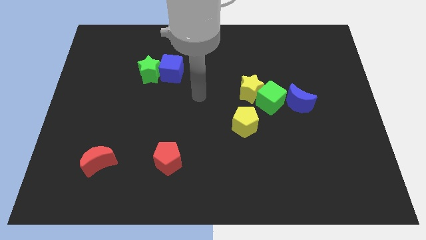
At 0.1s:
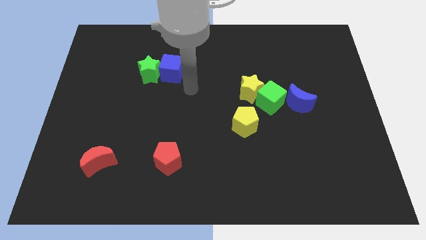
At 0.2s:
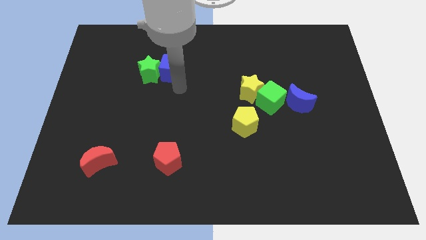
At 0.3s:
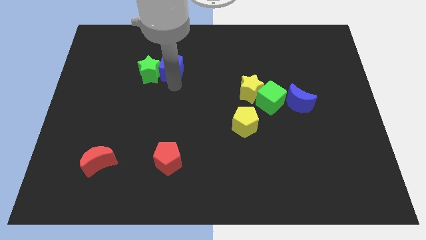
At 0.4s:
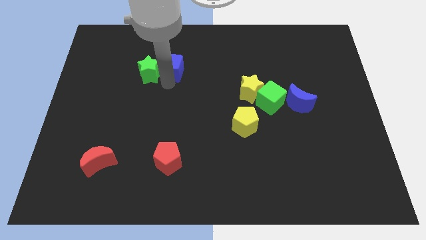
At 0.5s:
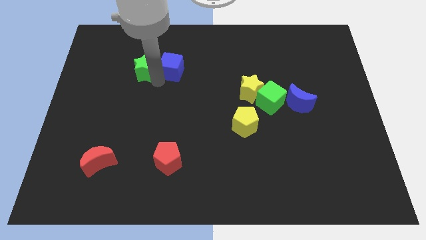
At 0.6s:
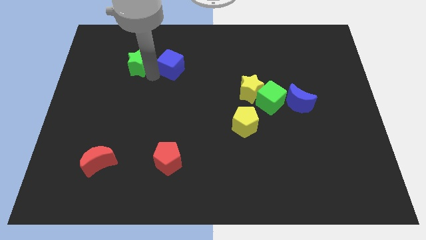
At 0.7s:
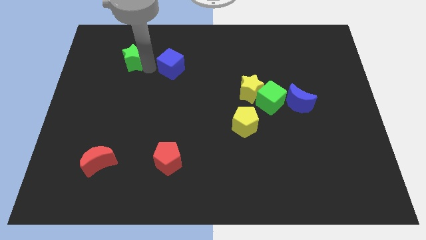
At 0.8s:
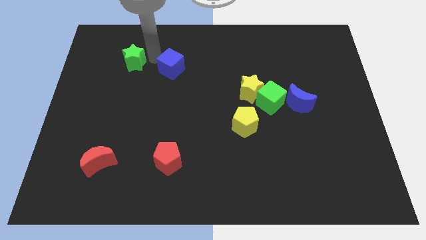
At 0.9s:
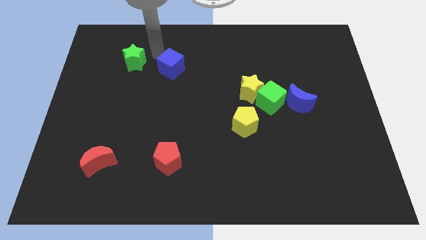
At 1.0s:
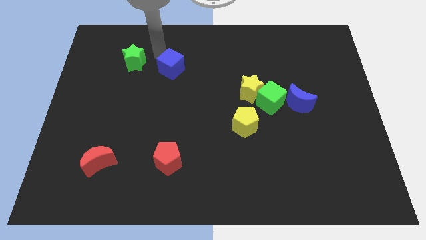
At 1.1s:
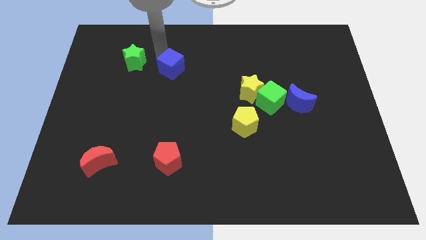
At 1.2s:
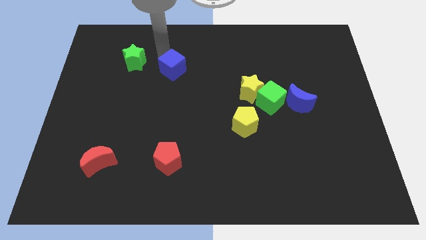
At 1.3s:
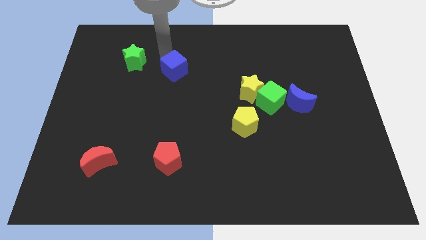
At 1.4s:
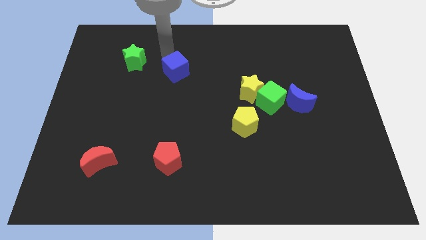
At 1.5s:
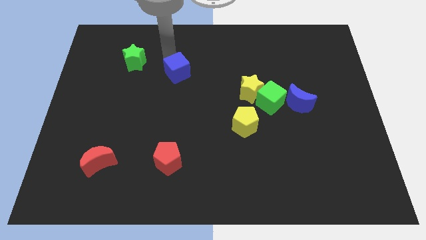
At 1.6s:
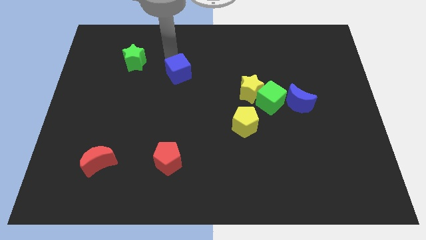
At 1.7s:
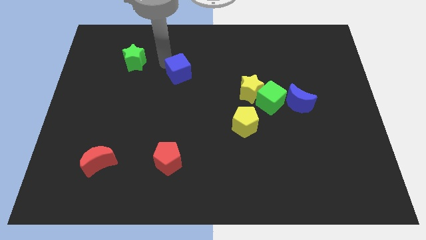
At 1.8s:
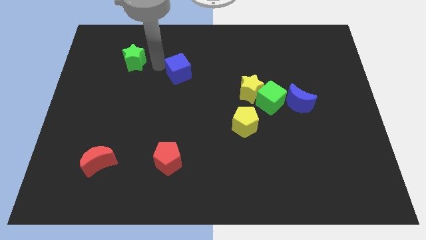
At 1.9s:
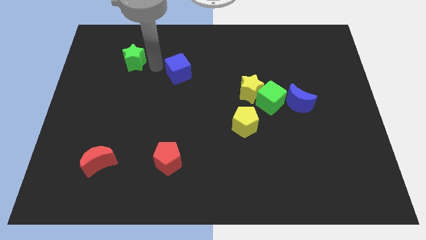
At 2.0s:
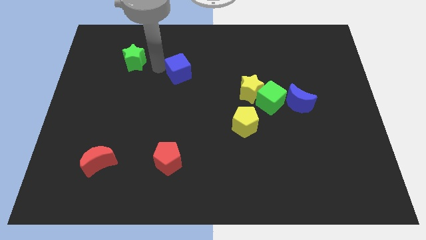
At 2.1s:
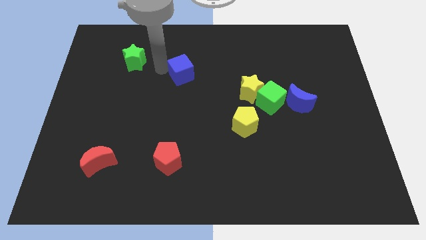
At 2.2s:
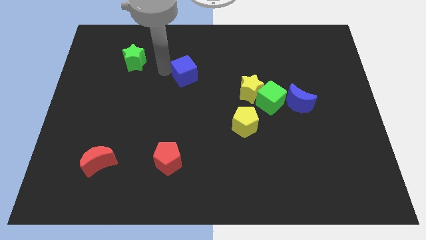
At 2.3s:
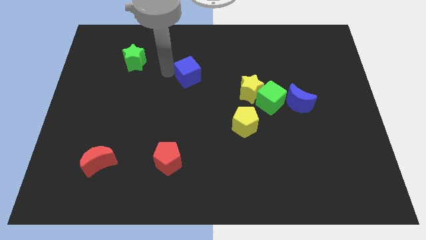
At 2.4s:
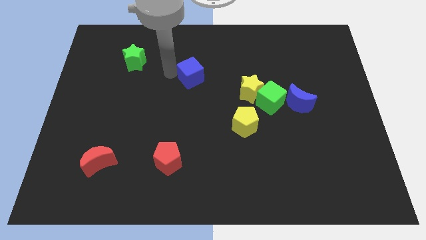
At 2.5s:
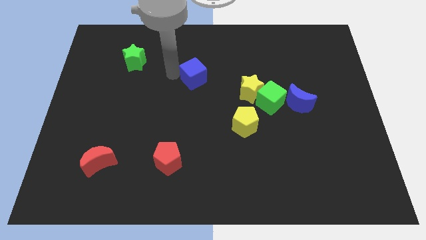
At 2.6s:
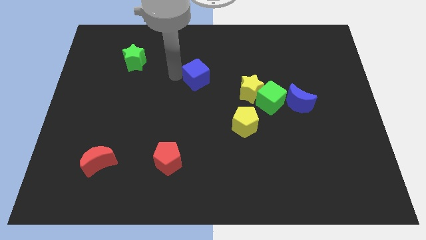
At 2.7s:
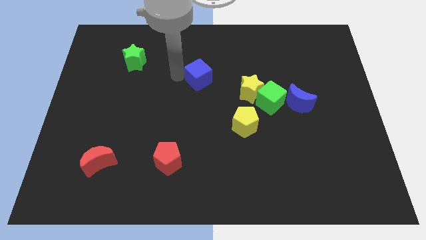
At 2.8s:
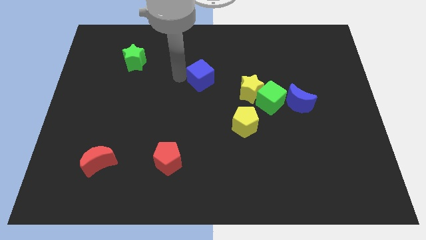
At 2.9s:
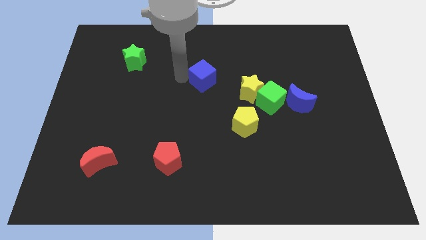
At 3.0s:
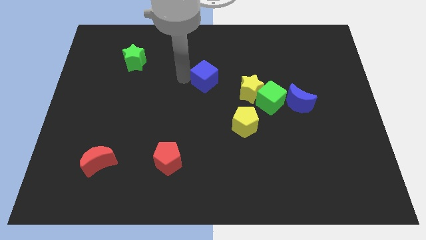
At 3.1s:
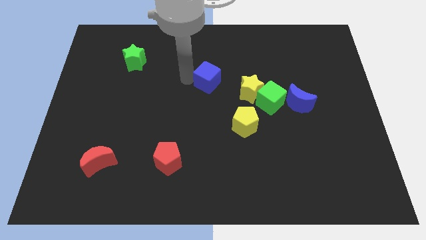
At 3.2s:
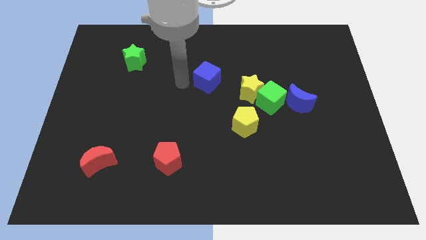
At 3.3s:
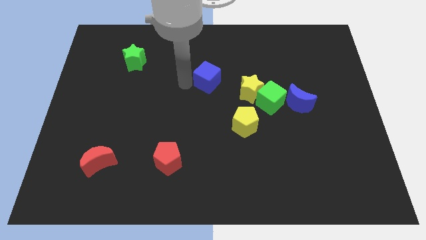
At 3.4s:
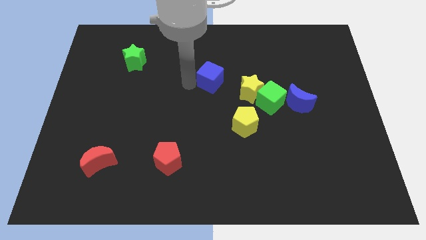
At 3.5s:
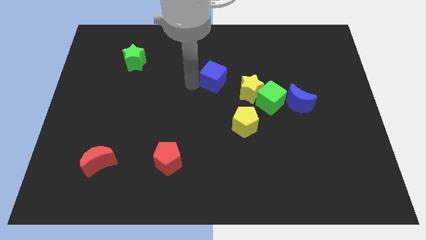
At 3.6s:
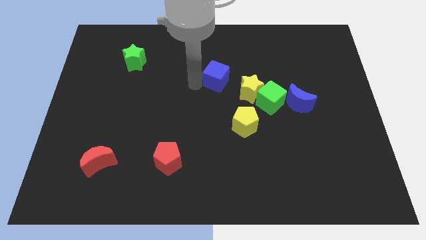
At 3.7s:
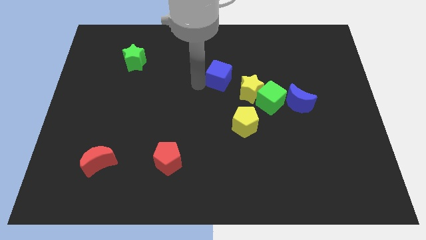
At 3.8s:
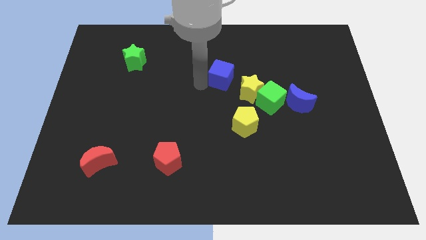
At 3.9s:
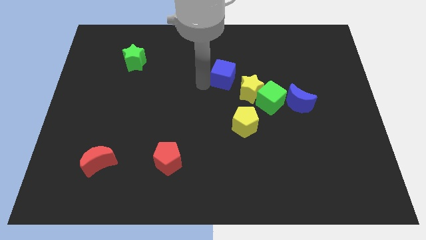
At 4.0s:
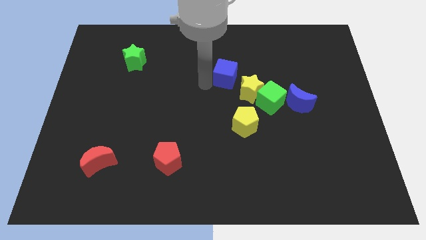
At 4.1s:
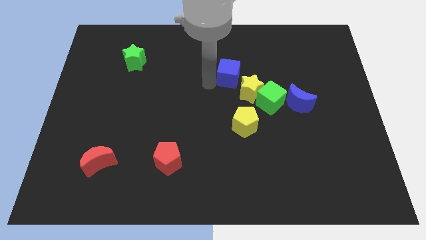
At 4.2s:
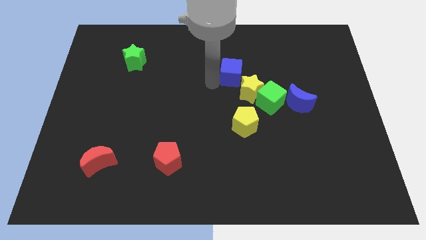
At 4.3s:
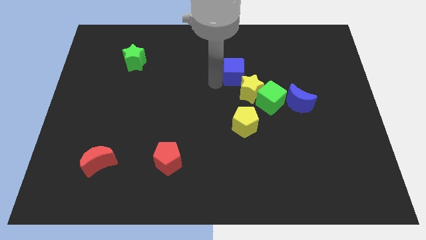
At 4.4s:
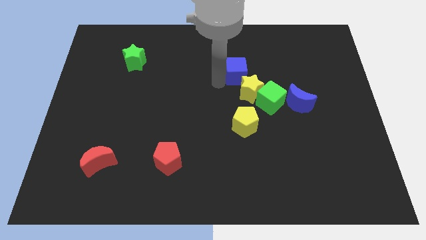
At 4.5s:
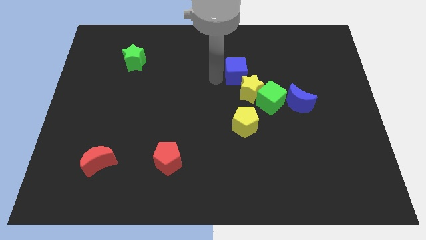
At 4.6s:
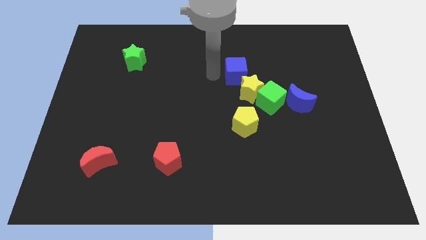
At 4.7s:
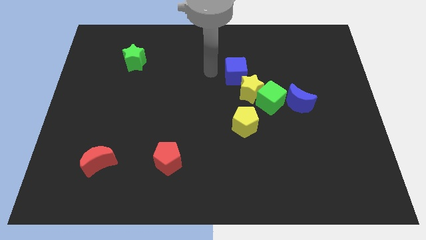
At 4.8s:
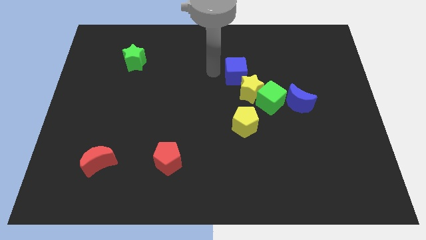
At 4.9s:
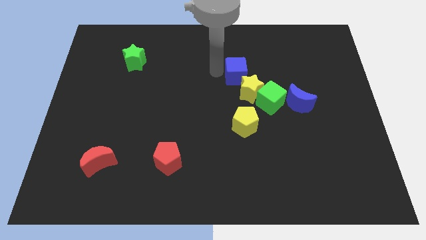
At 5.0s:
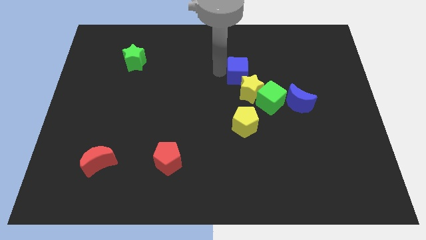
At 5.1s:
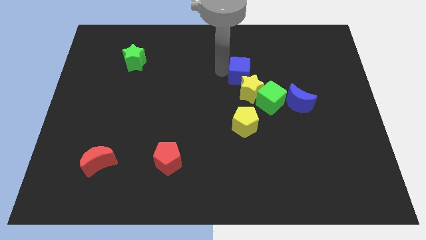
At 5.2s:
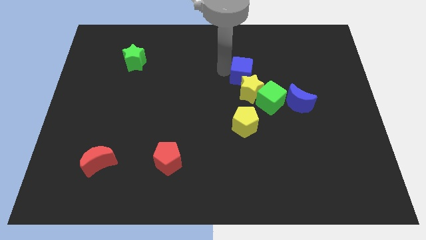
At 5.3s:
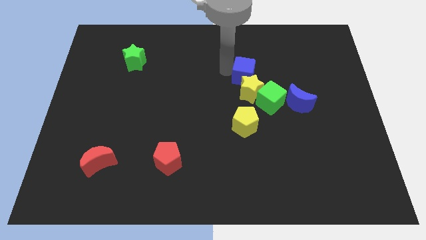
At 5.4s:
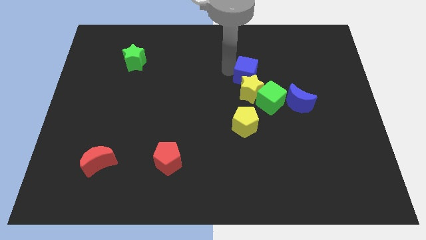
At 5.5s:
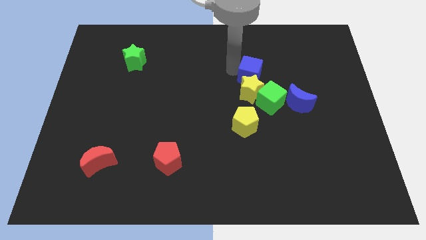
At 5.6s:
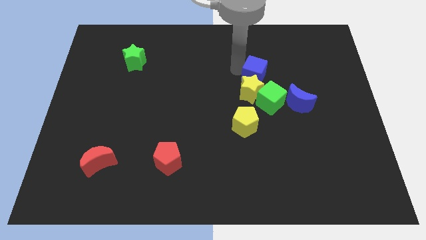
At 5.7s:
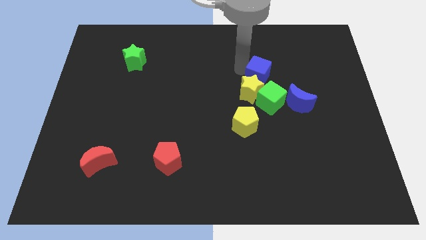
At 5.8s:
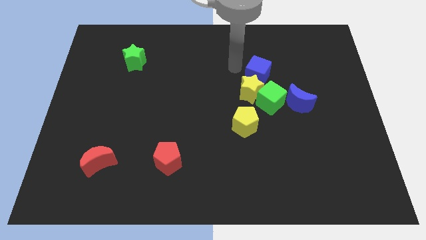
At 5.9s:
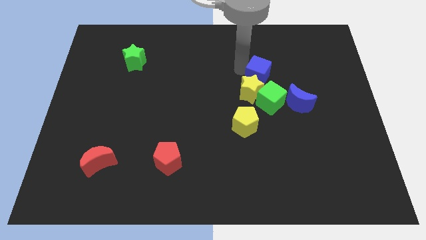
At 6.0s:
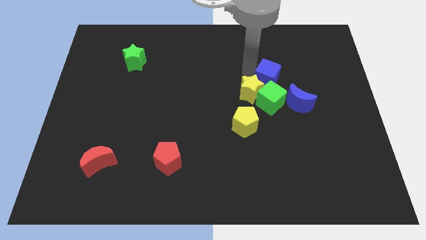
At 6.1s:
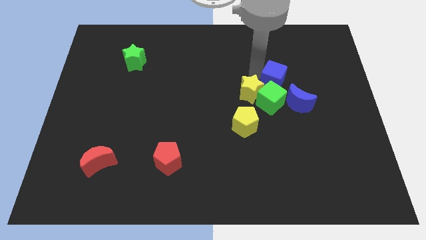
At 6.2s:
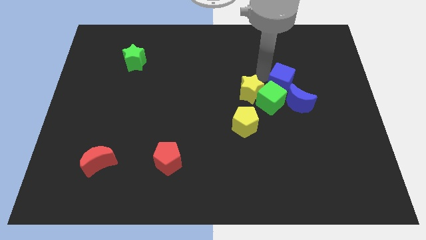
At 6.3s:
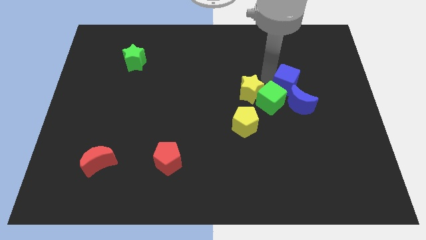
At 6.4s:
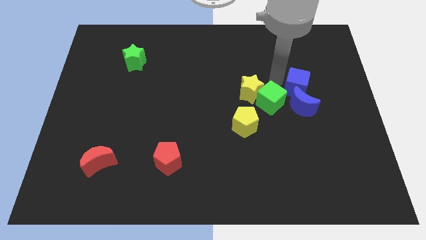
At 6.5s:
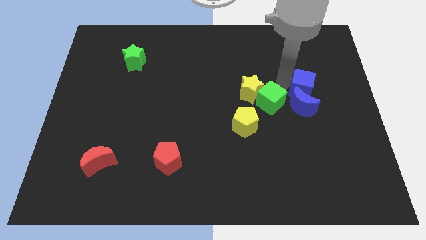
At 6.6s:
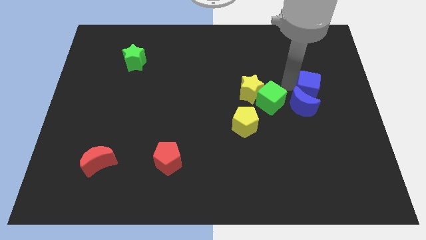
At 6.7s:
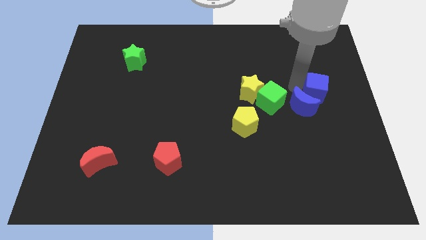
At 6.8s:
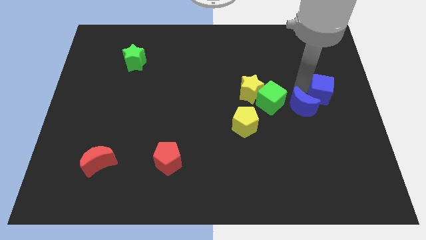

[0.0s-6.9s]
slide the blue cube to the center right

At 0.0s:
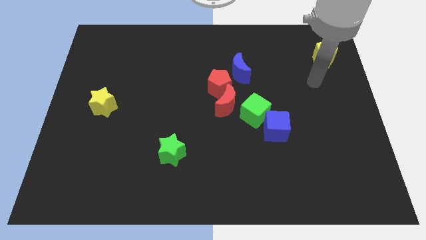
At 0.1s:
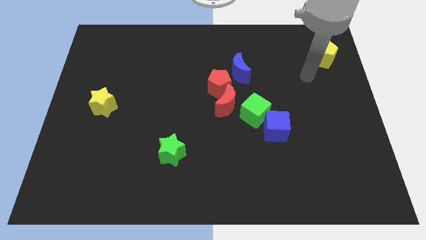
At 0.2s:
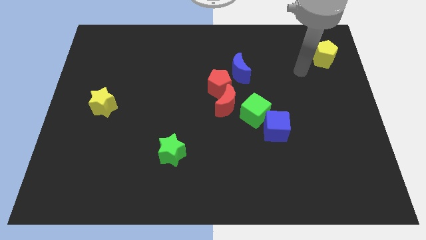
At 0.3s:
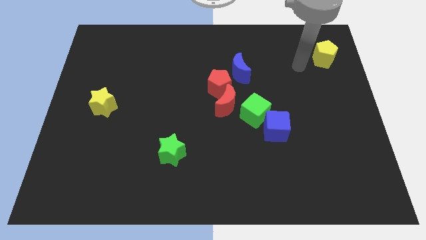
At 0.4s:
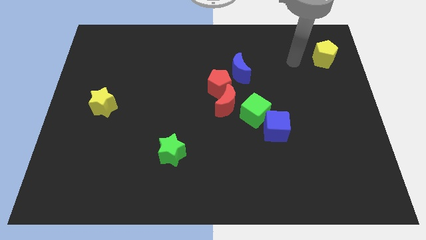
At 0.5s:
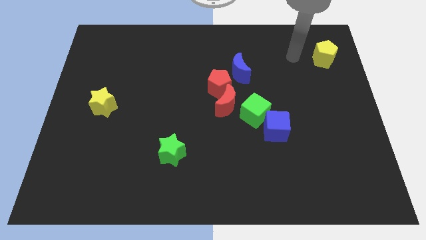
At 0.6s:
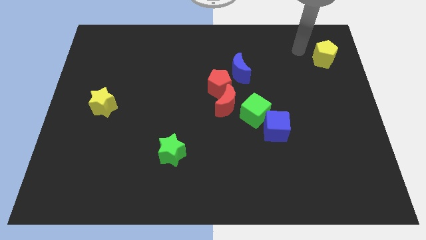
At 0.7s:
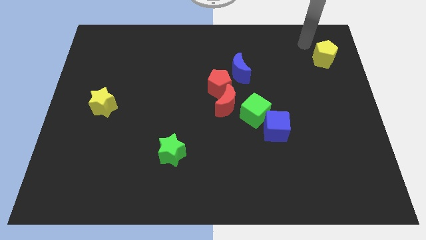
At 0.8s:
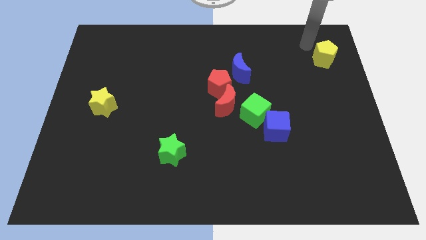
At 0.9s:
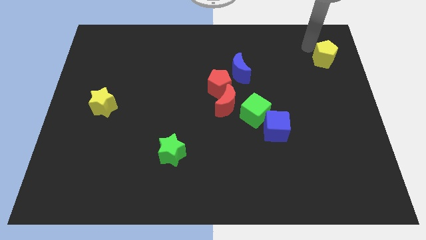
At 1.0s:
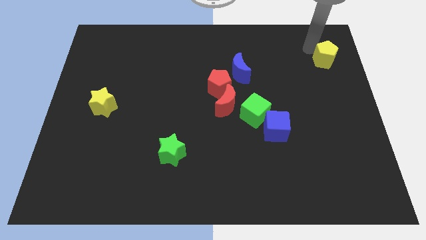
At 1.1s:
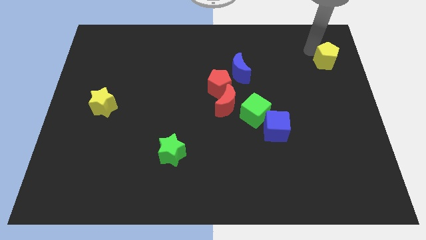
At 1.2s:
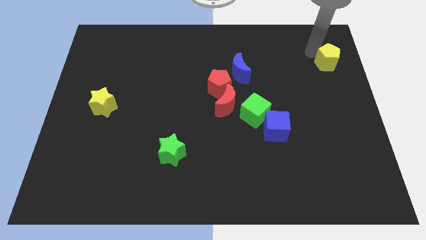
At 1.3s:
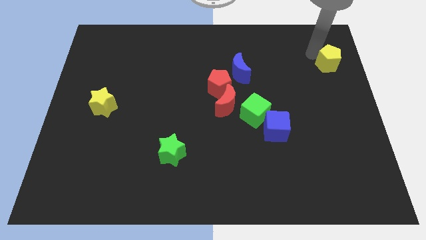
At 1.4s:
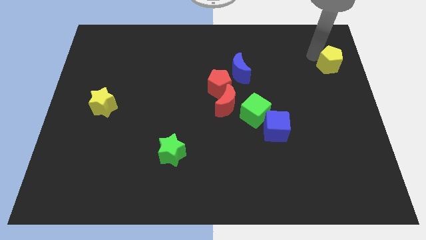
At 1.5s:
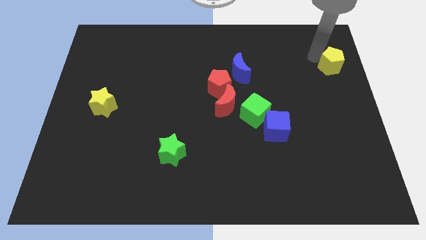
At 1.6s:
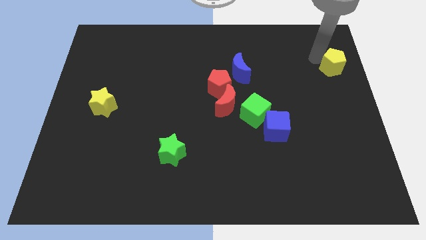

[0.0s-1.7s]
move the yellow pentagon to the right side of the board
